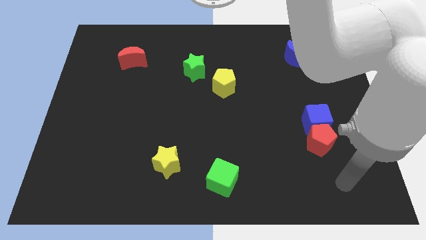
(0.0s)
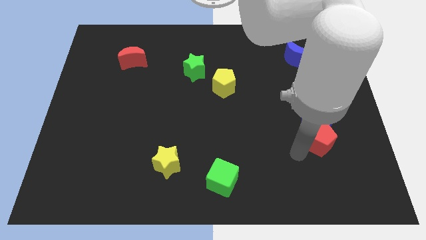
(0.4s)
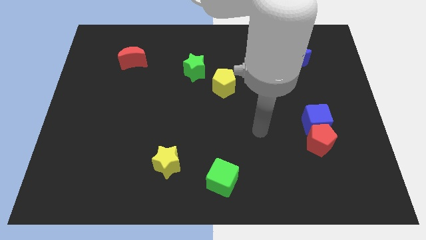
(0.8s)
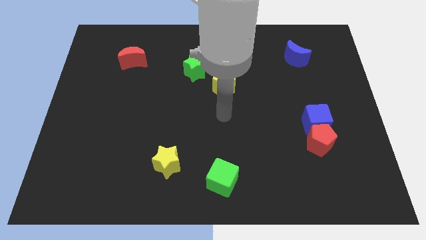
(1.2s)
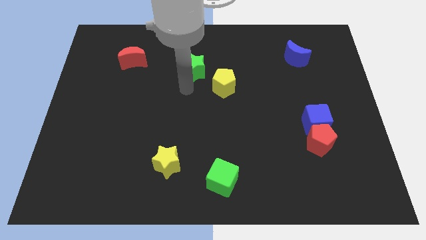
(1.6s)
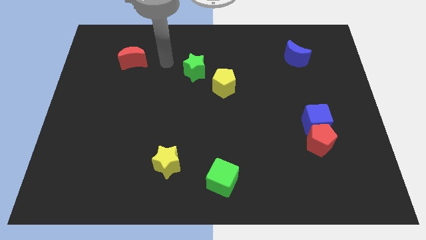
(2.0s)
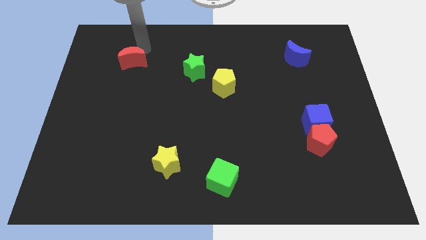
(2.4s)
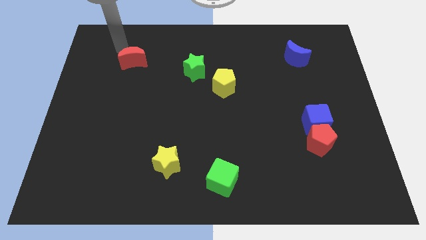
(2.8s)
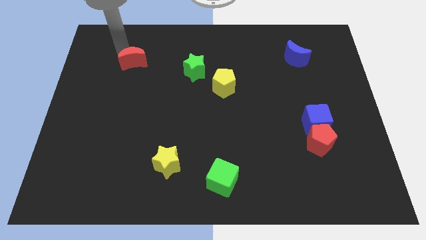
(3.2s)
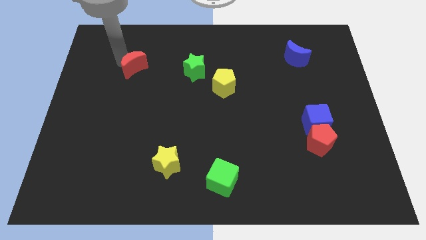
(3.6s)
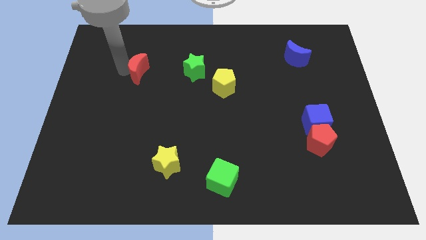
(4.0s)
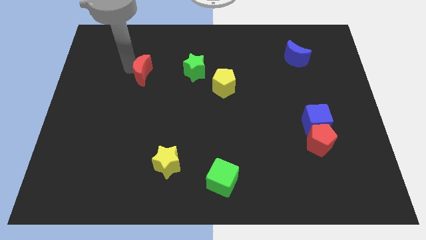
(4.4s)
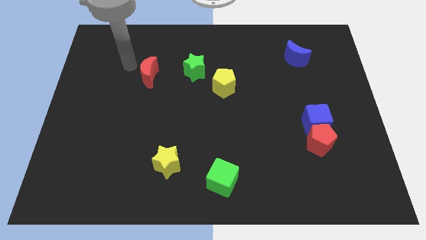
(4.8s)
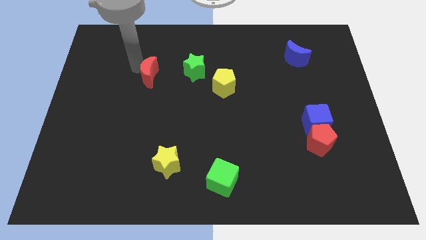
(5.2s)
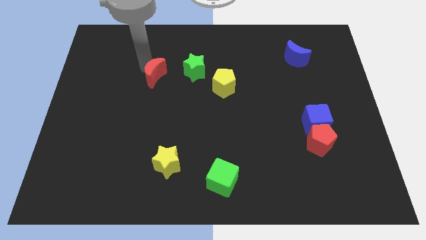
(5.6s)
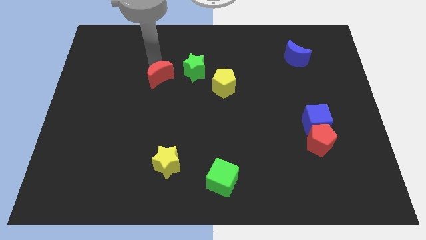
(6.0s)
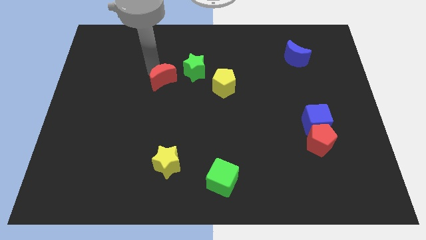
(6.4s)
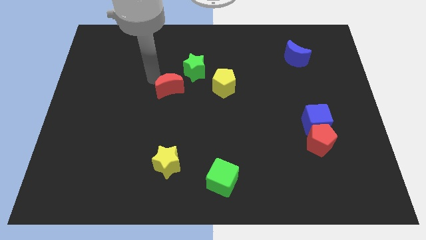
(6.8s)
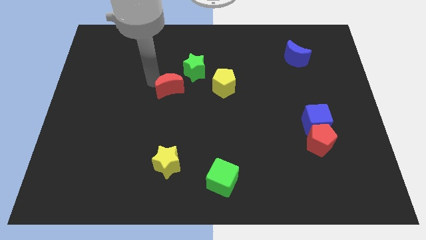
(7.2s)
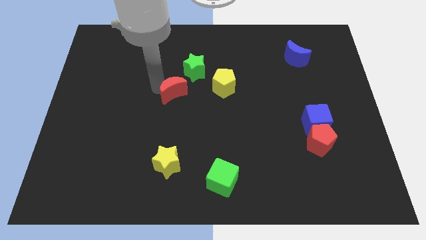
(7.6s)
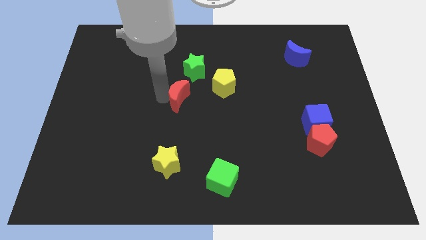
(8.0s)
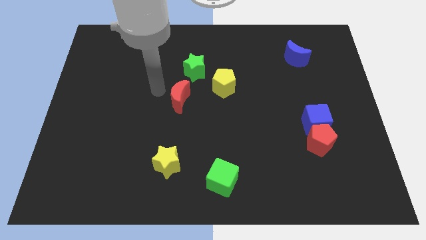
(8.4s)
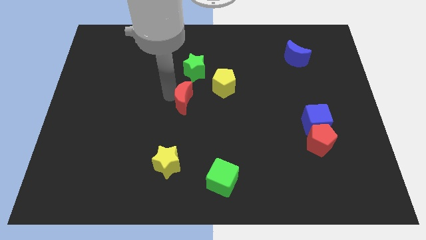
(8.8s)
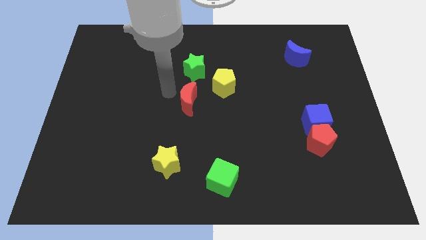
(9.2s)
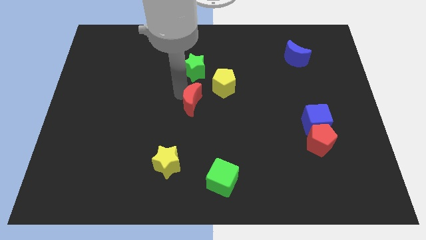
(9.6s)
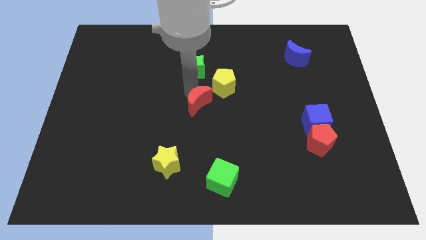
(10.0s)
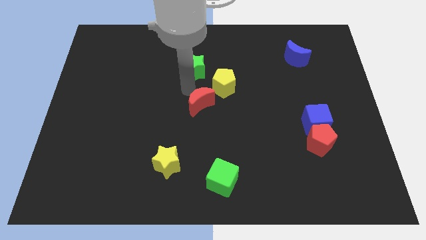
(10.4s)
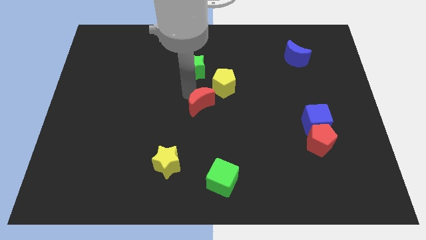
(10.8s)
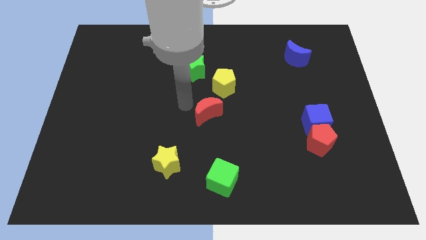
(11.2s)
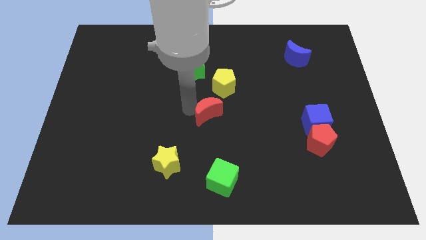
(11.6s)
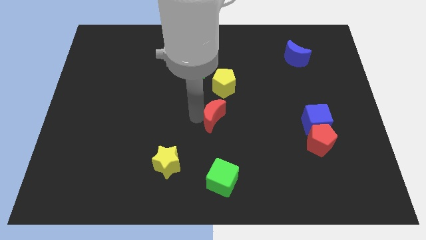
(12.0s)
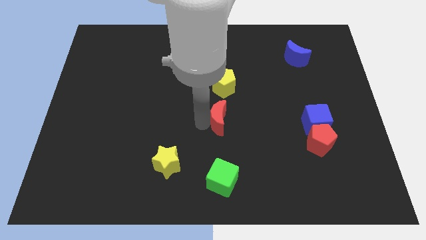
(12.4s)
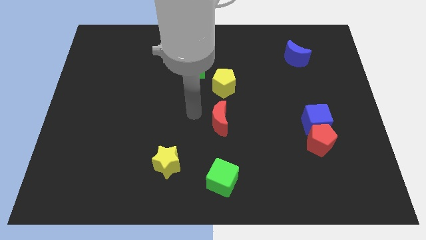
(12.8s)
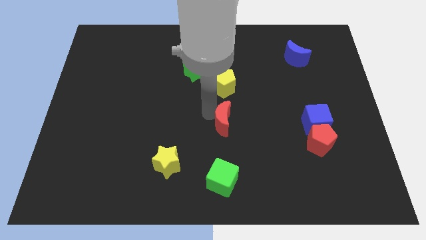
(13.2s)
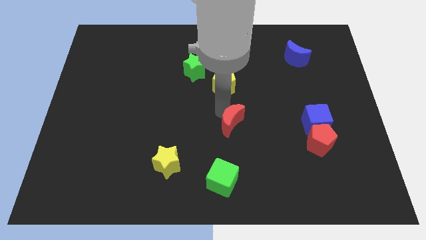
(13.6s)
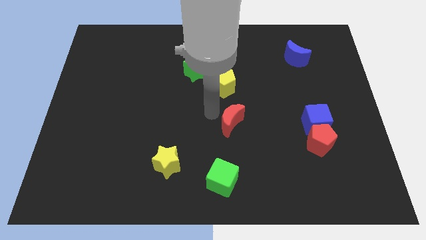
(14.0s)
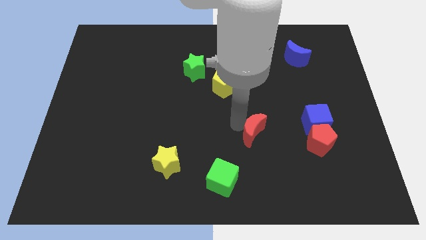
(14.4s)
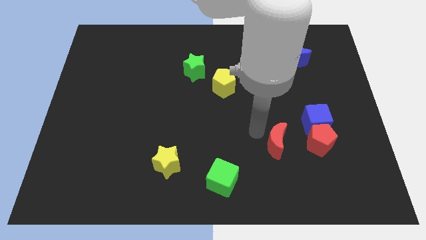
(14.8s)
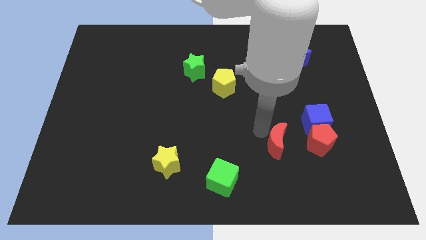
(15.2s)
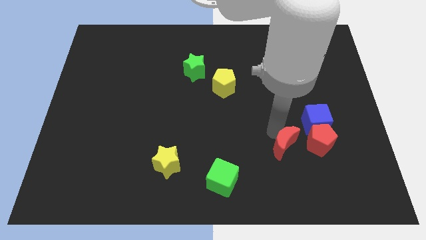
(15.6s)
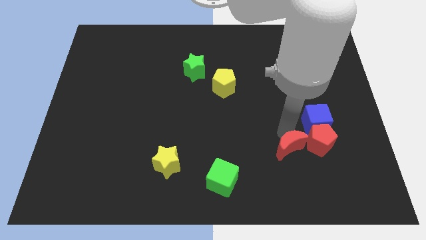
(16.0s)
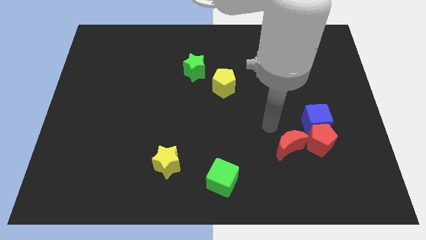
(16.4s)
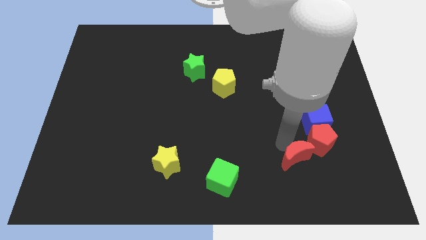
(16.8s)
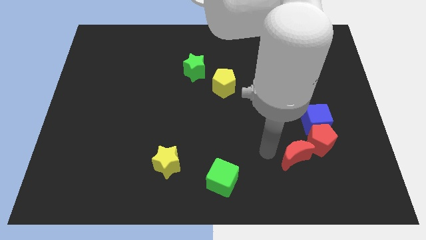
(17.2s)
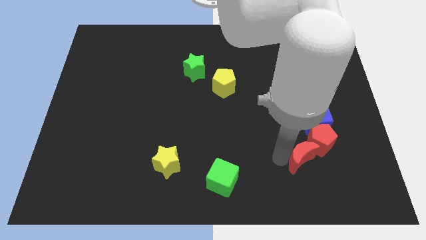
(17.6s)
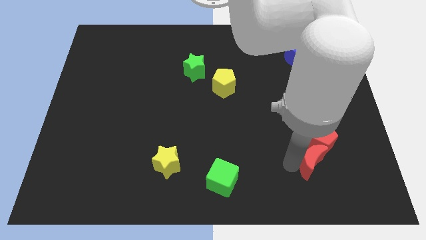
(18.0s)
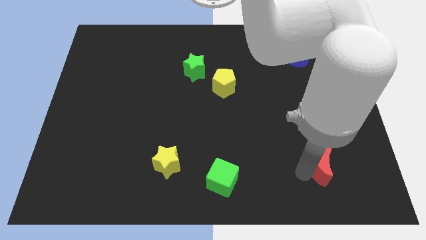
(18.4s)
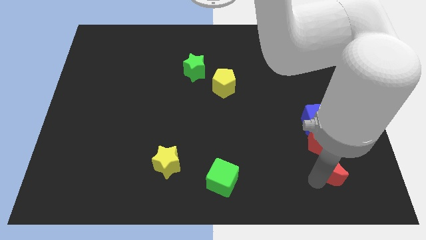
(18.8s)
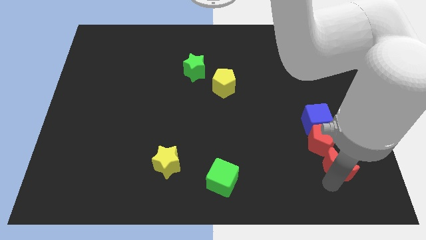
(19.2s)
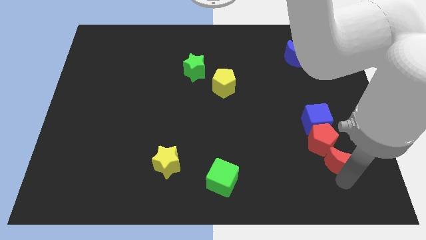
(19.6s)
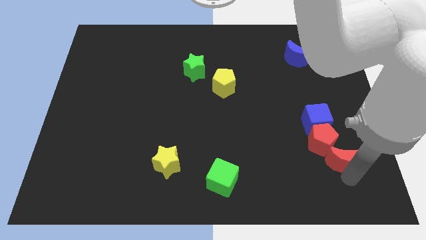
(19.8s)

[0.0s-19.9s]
move the red moon to the bottom right of the blue cube

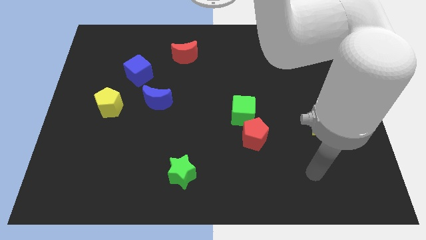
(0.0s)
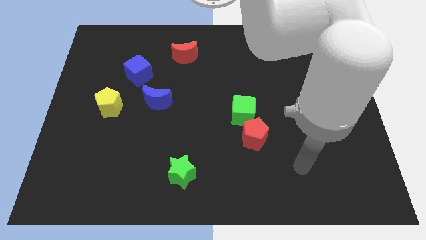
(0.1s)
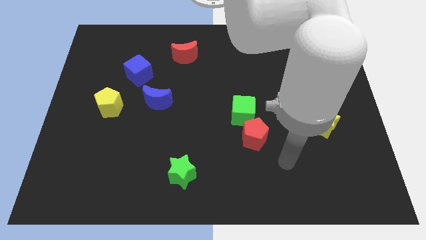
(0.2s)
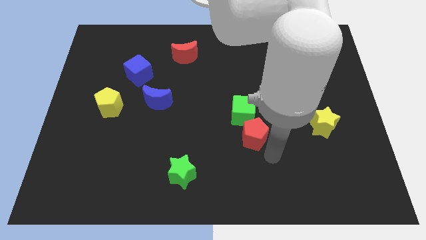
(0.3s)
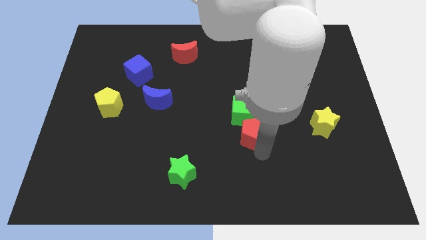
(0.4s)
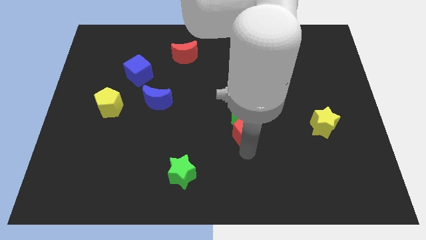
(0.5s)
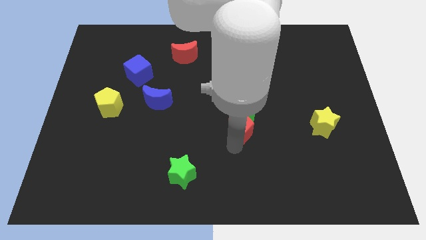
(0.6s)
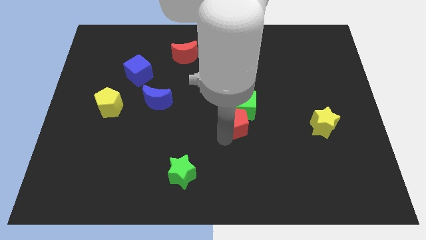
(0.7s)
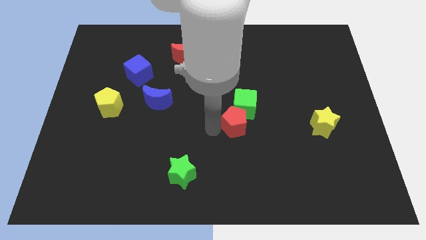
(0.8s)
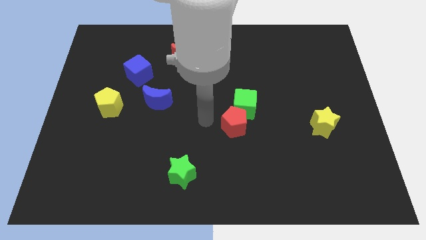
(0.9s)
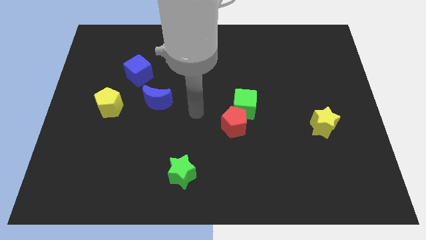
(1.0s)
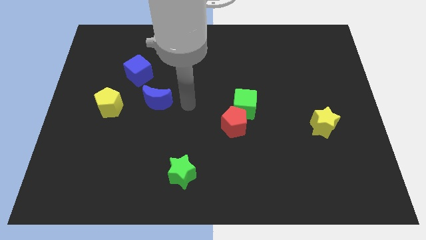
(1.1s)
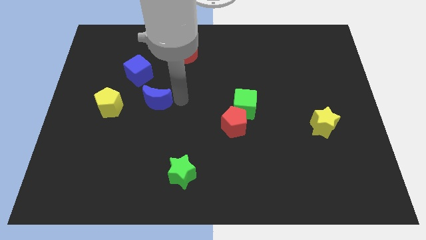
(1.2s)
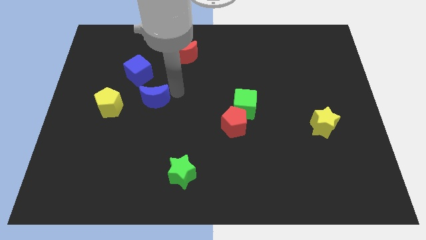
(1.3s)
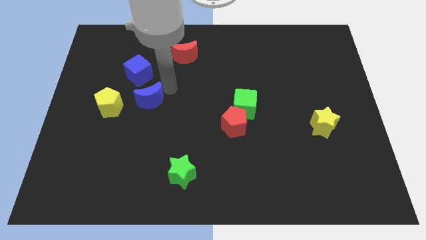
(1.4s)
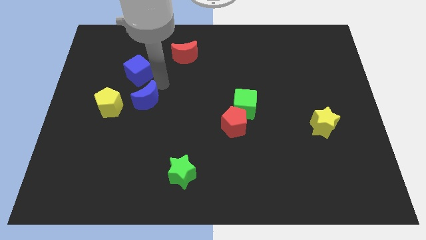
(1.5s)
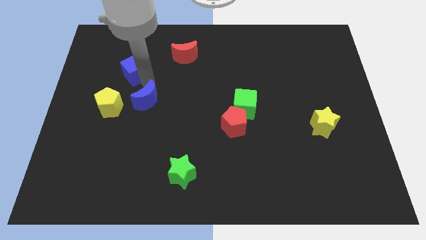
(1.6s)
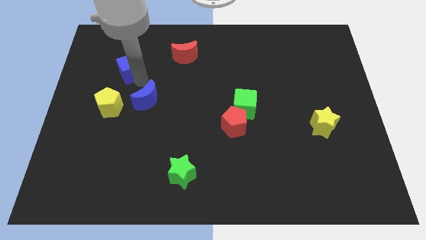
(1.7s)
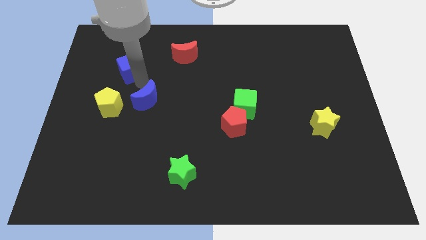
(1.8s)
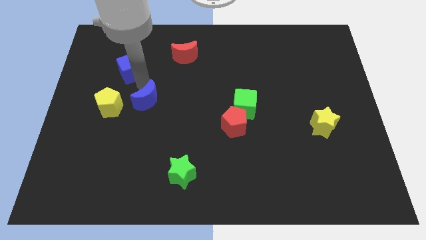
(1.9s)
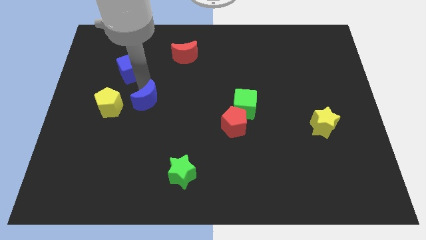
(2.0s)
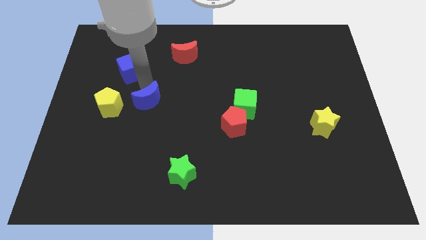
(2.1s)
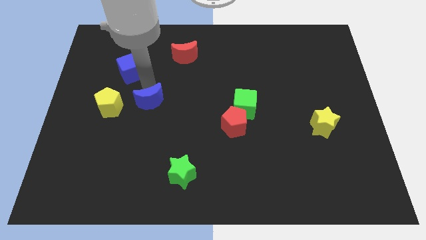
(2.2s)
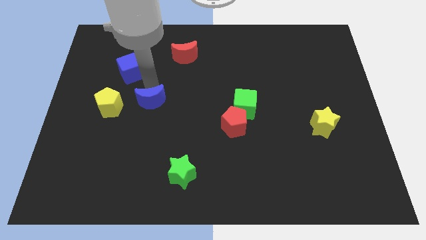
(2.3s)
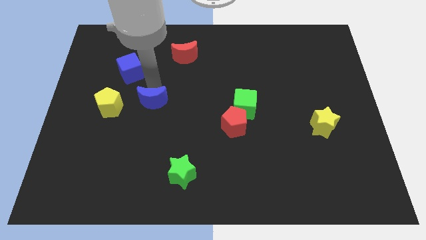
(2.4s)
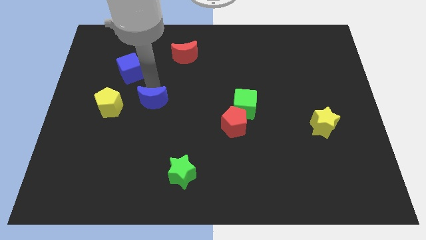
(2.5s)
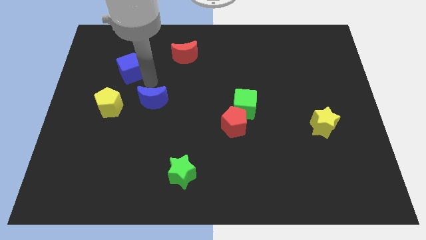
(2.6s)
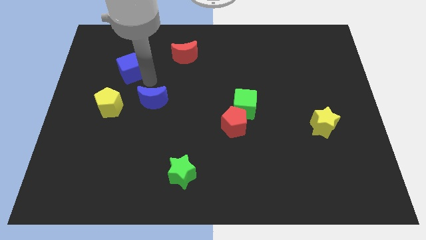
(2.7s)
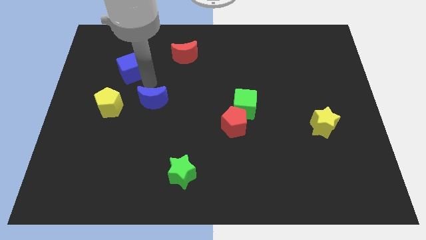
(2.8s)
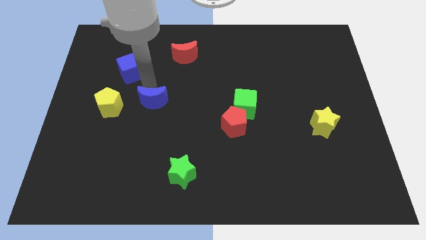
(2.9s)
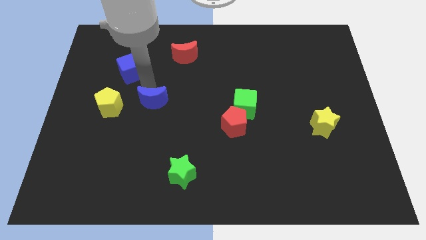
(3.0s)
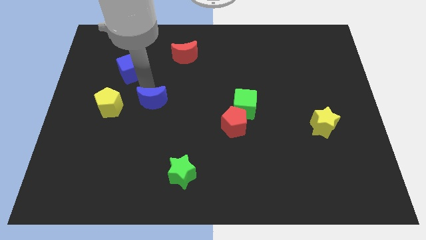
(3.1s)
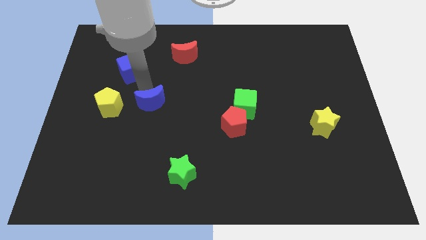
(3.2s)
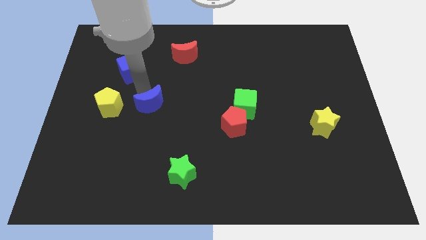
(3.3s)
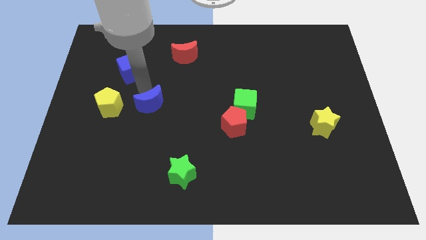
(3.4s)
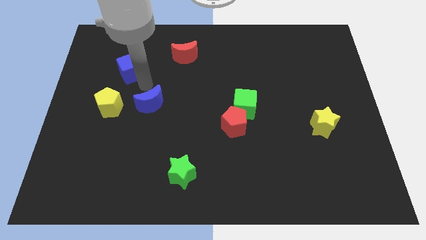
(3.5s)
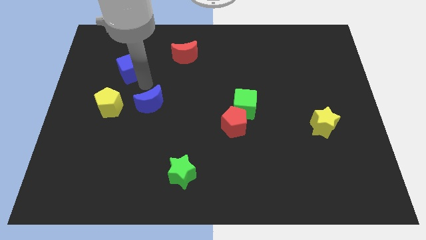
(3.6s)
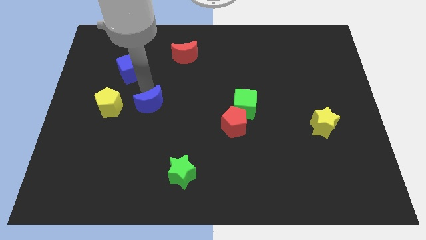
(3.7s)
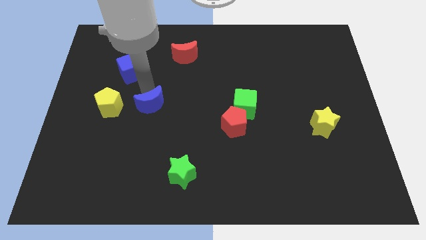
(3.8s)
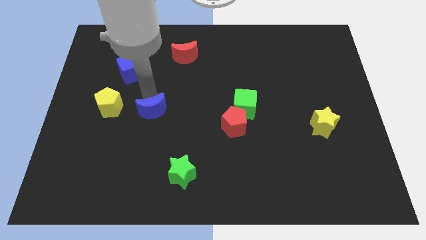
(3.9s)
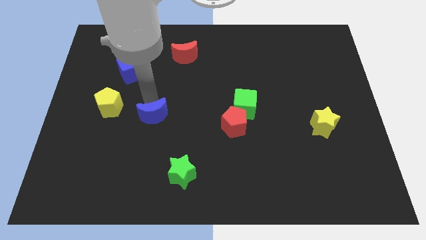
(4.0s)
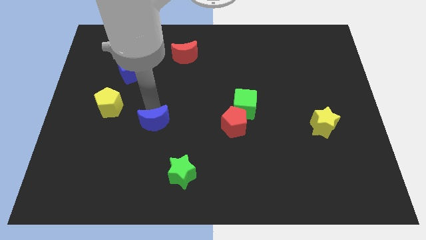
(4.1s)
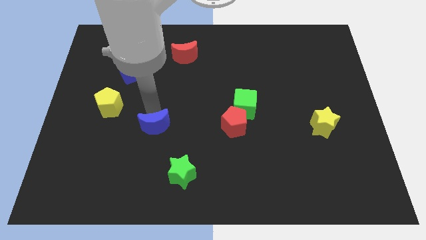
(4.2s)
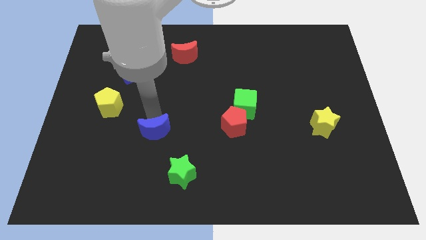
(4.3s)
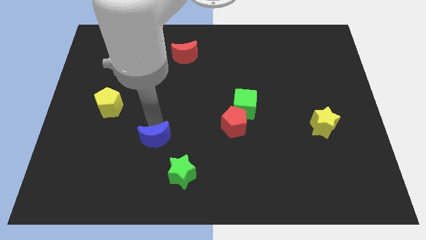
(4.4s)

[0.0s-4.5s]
slide the blue moon to the top left side of the green star
